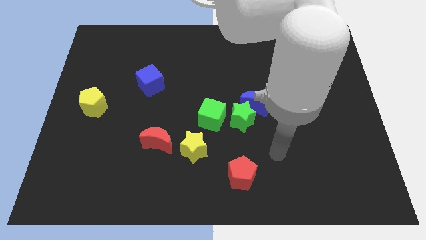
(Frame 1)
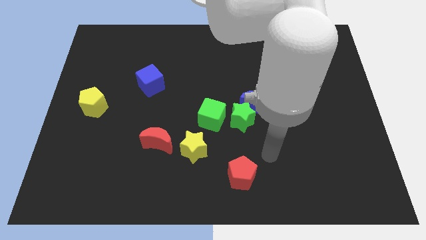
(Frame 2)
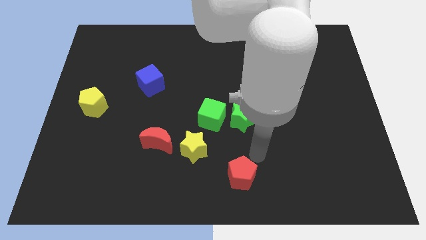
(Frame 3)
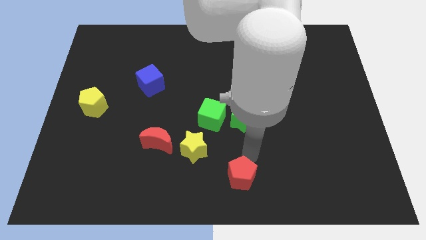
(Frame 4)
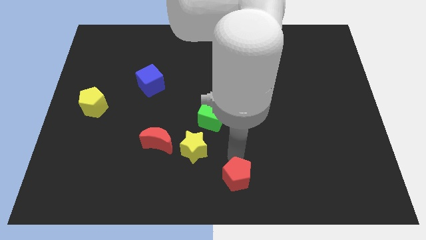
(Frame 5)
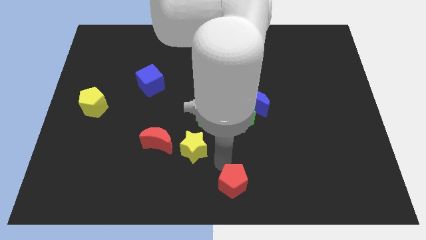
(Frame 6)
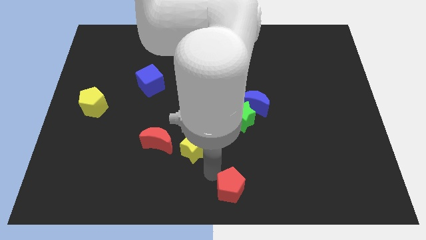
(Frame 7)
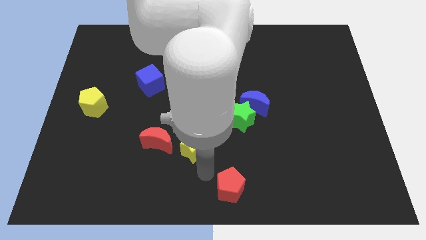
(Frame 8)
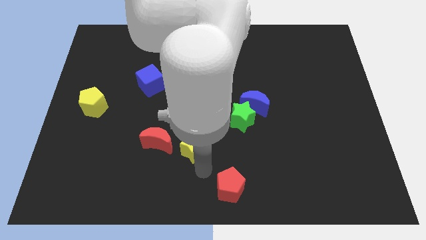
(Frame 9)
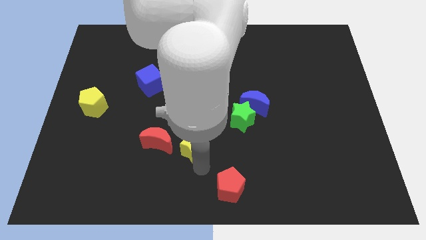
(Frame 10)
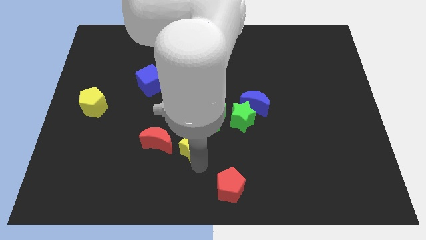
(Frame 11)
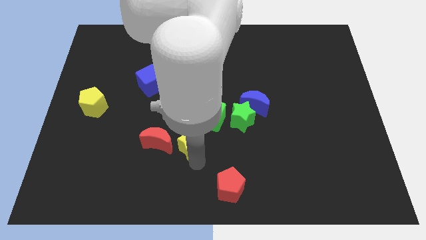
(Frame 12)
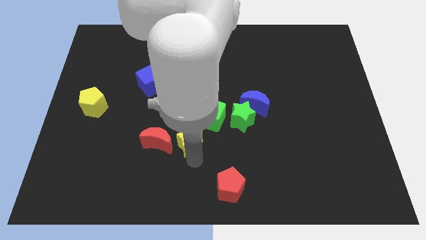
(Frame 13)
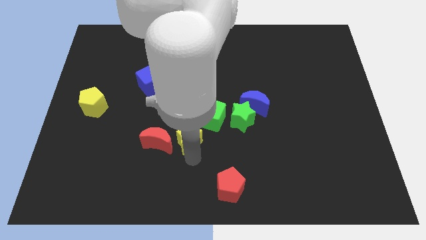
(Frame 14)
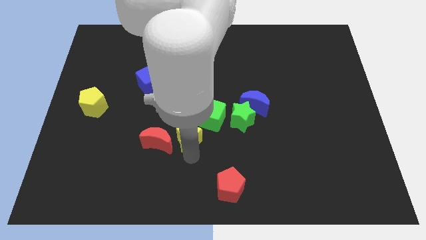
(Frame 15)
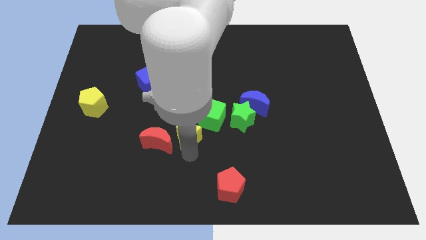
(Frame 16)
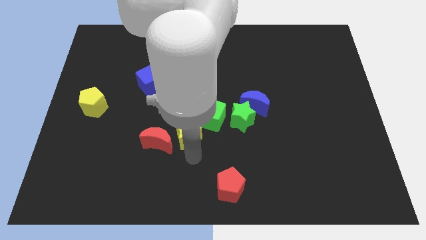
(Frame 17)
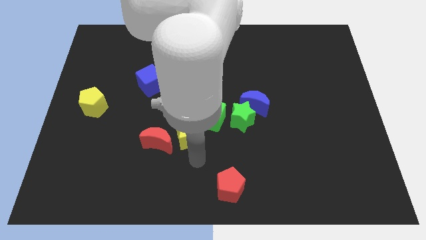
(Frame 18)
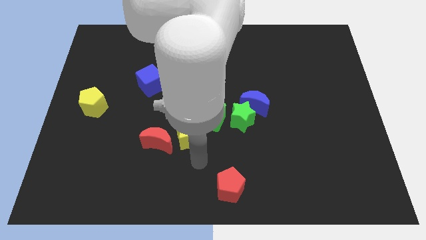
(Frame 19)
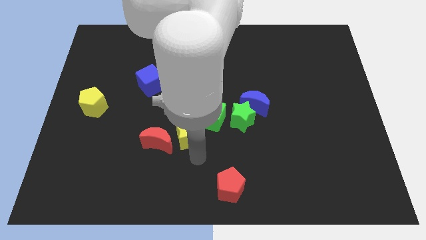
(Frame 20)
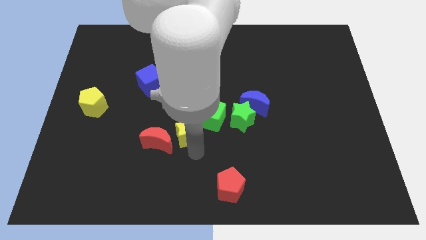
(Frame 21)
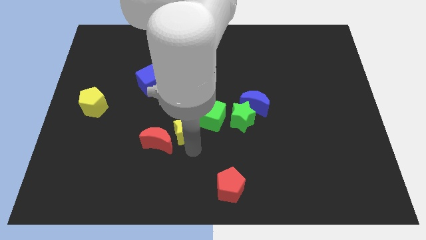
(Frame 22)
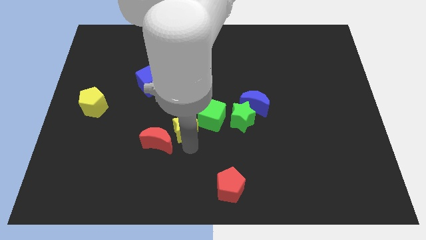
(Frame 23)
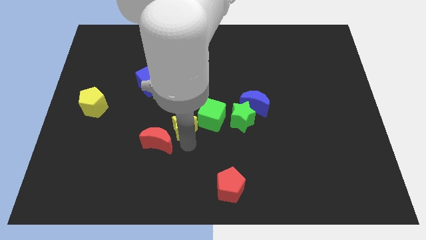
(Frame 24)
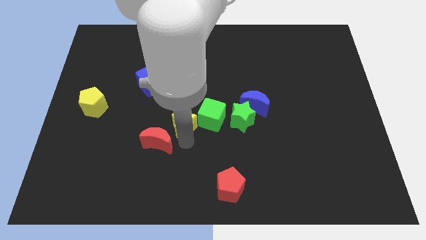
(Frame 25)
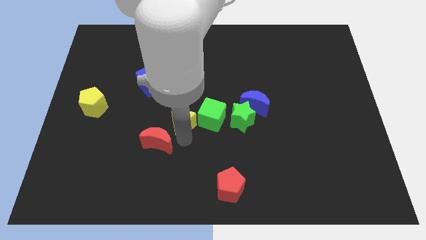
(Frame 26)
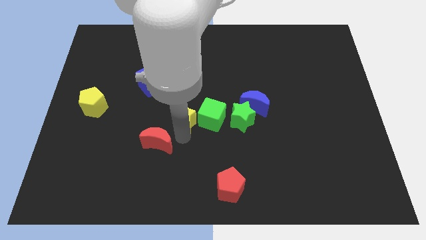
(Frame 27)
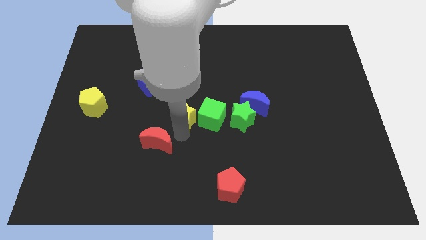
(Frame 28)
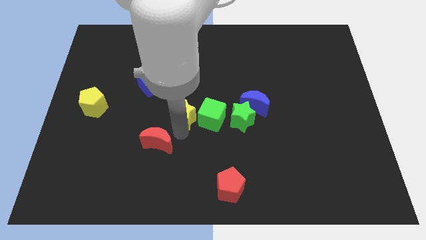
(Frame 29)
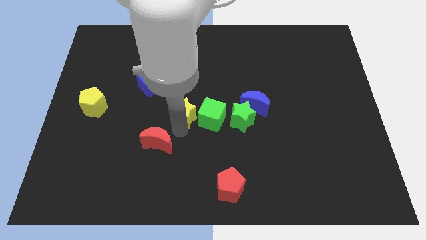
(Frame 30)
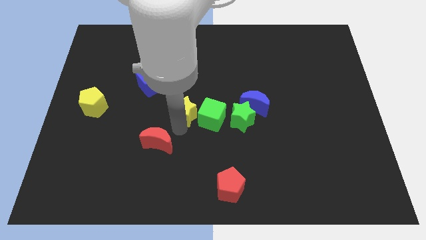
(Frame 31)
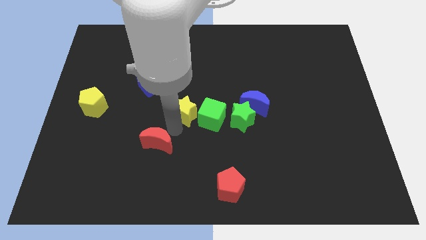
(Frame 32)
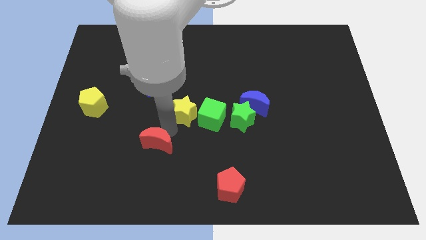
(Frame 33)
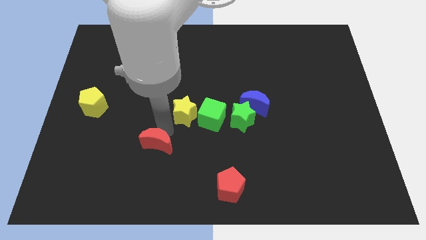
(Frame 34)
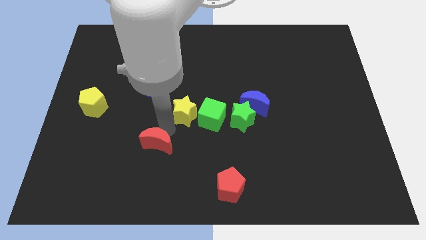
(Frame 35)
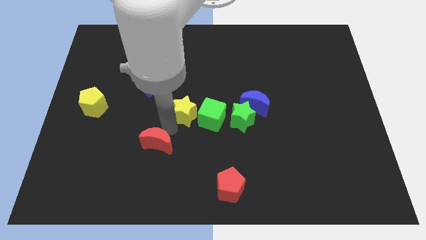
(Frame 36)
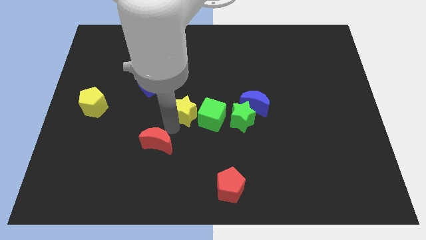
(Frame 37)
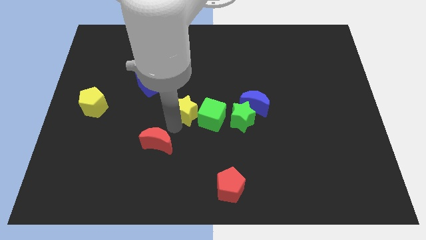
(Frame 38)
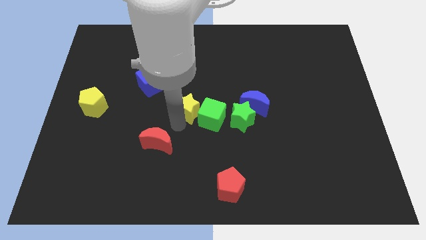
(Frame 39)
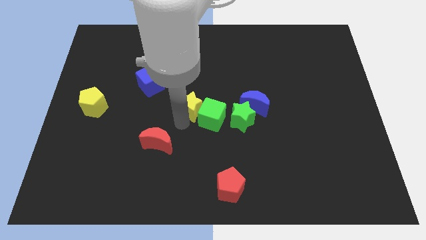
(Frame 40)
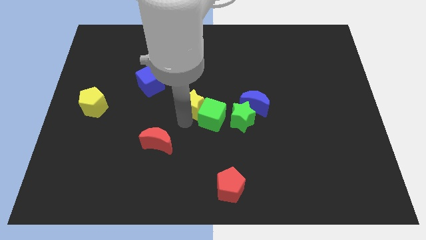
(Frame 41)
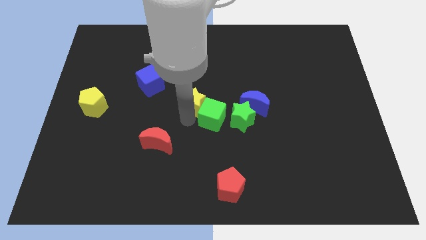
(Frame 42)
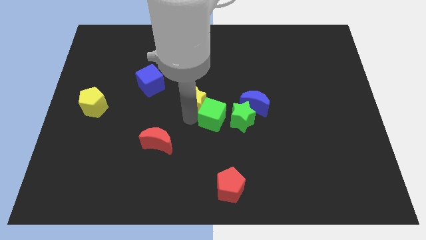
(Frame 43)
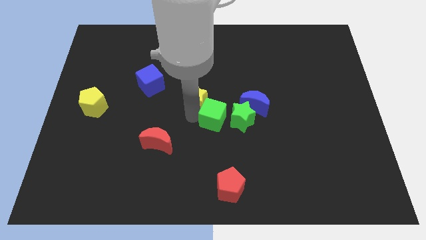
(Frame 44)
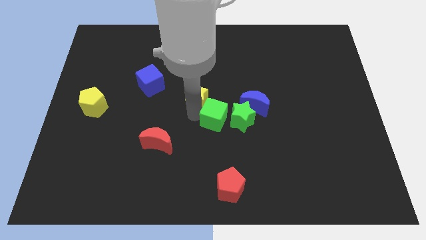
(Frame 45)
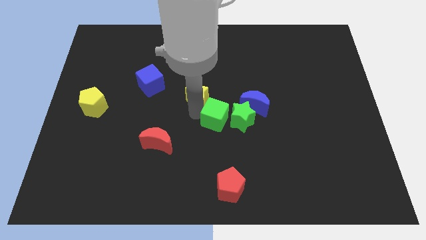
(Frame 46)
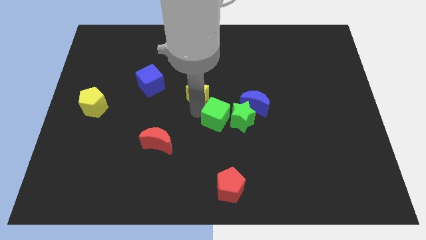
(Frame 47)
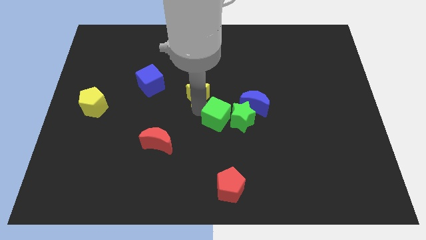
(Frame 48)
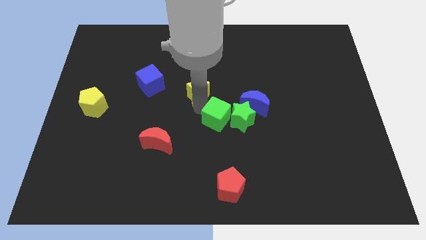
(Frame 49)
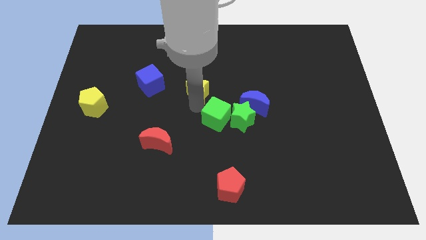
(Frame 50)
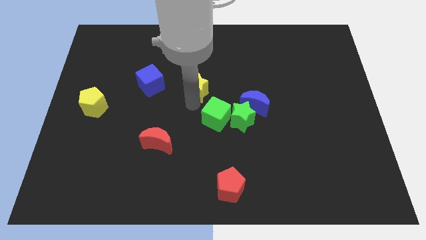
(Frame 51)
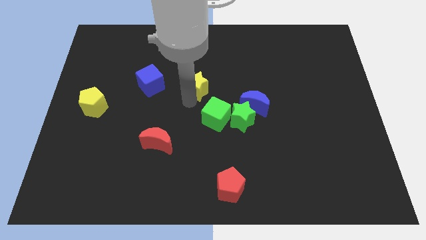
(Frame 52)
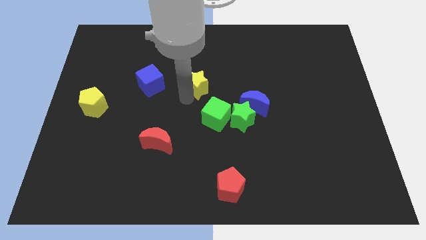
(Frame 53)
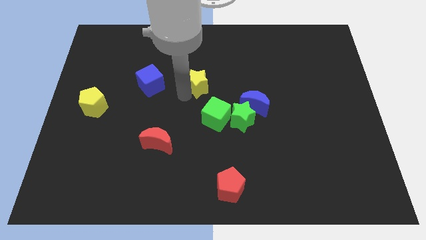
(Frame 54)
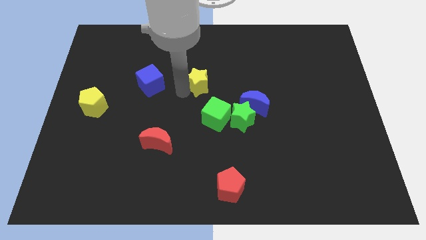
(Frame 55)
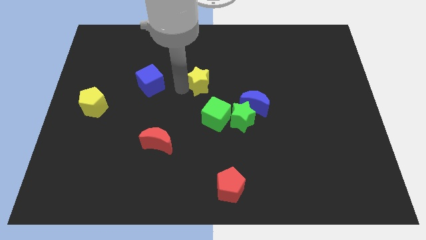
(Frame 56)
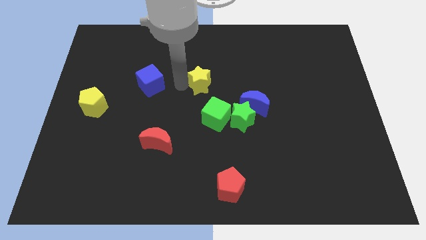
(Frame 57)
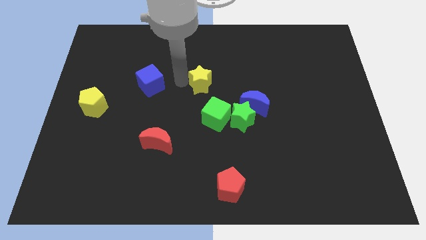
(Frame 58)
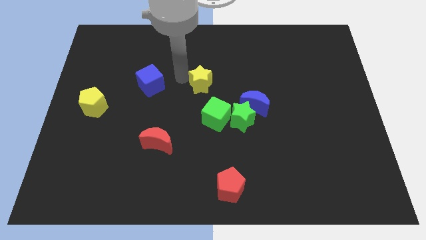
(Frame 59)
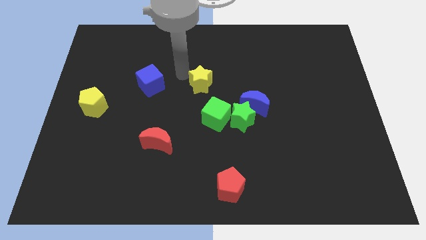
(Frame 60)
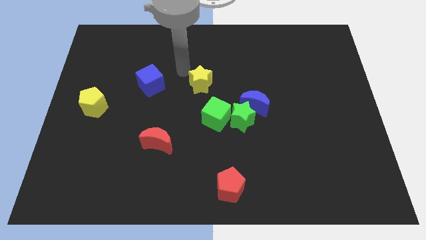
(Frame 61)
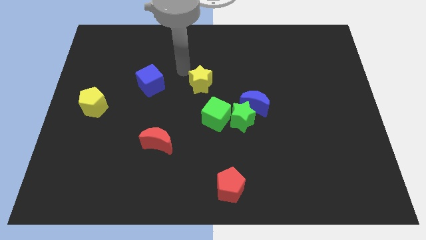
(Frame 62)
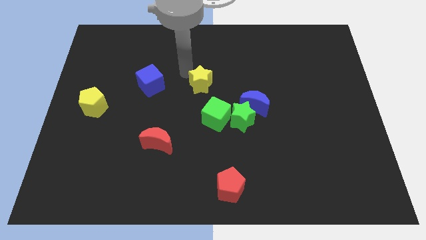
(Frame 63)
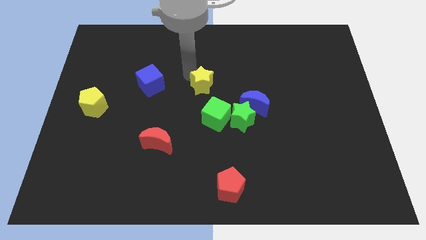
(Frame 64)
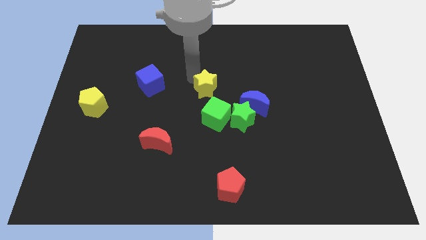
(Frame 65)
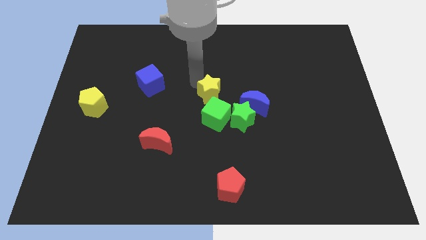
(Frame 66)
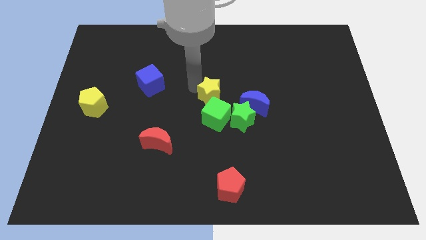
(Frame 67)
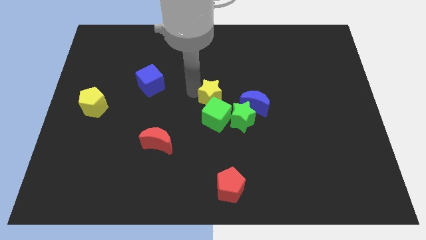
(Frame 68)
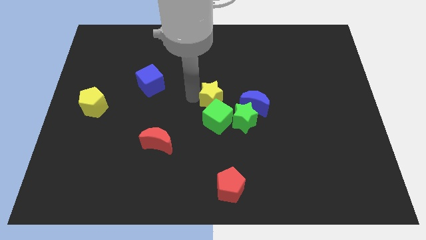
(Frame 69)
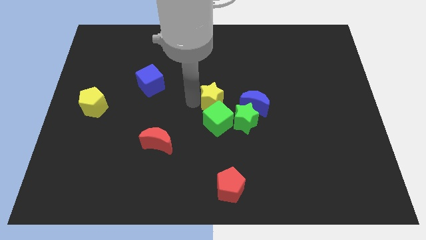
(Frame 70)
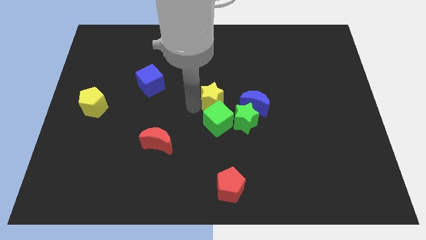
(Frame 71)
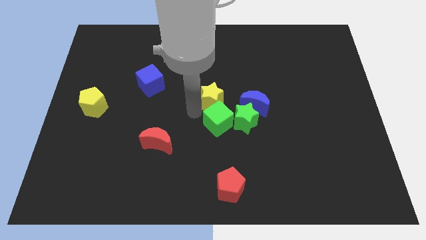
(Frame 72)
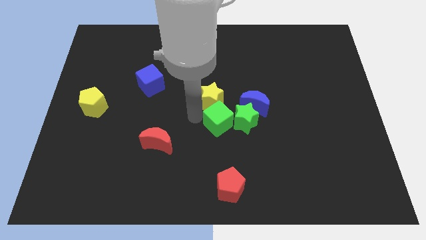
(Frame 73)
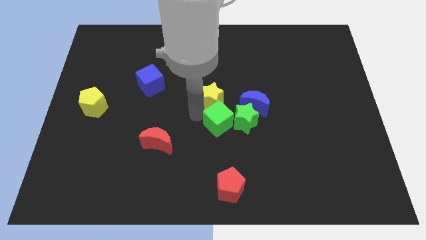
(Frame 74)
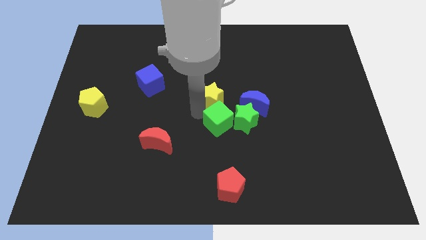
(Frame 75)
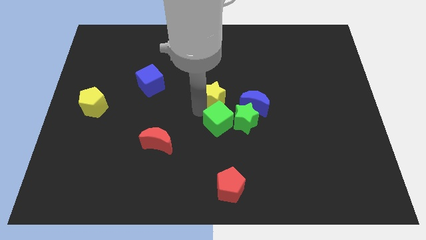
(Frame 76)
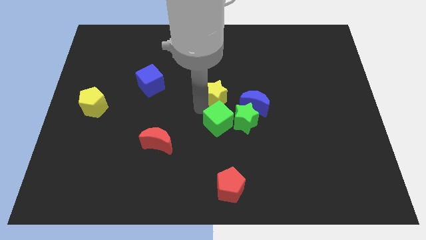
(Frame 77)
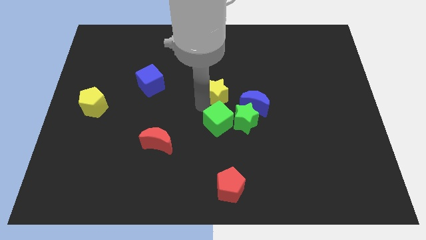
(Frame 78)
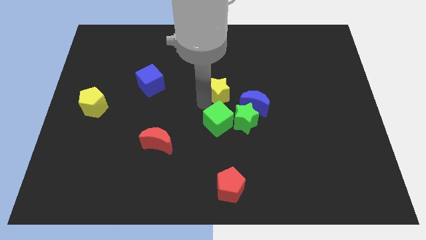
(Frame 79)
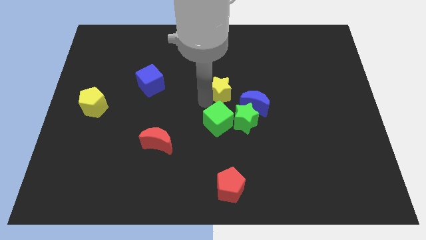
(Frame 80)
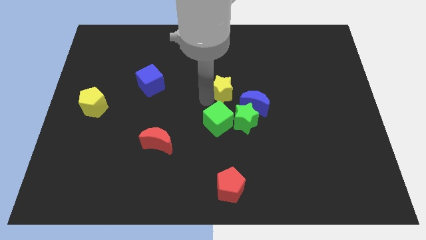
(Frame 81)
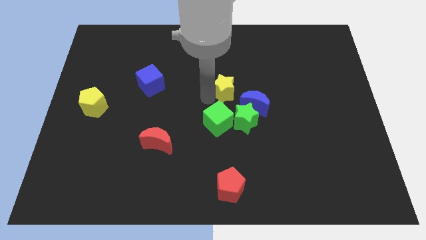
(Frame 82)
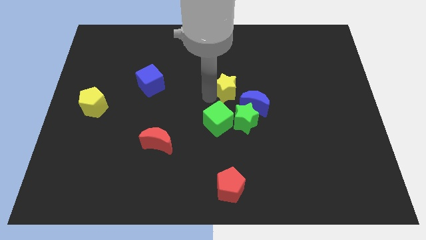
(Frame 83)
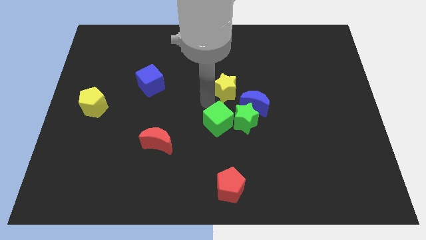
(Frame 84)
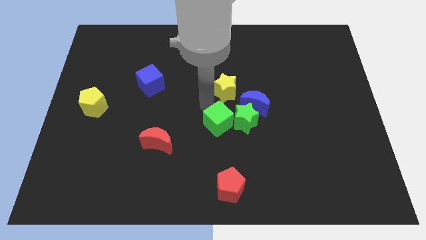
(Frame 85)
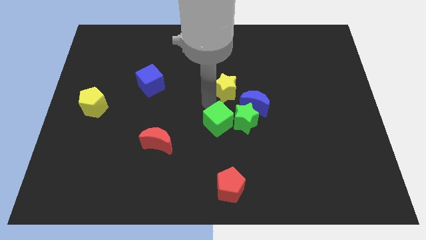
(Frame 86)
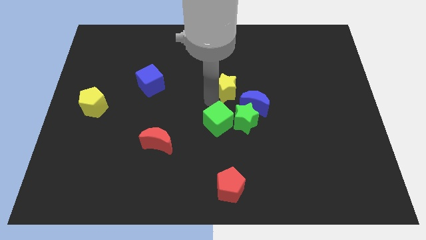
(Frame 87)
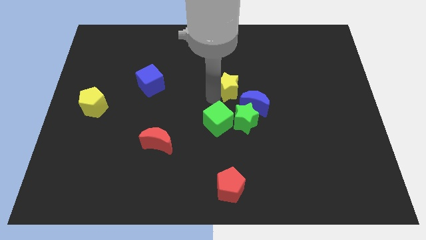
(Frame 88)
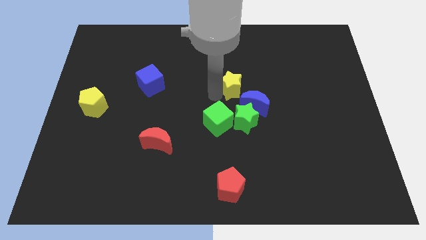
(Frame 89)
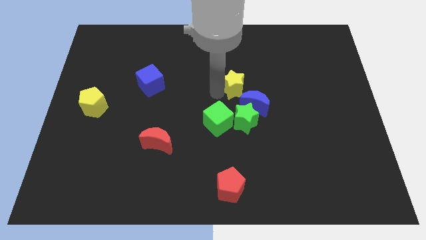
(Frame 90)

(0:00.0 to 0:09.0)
move the yellow star above the blue moon
